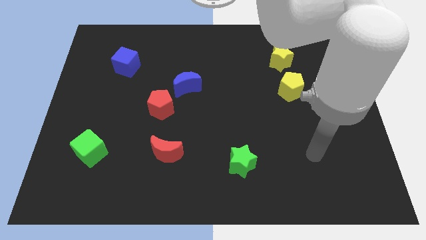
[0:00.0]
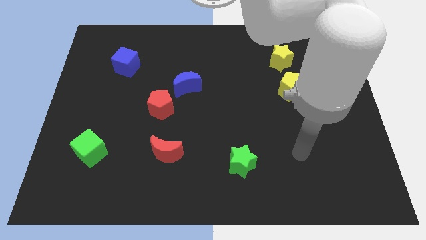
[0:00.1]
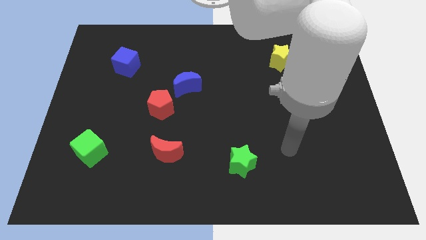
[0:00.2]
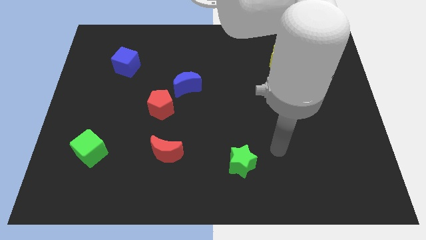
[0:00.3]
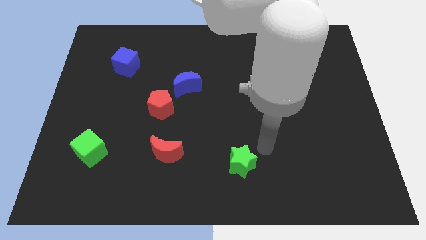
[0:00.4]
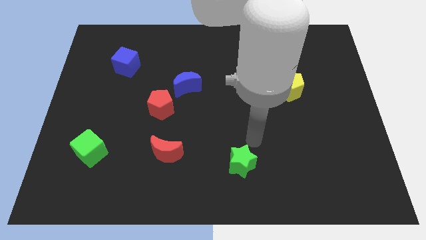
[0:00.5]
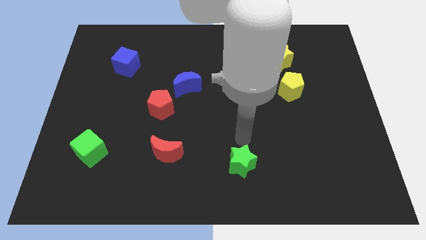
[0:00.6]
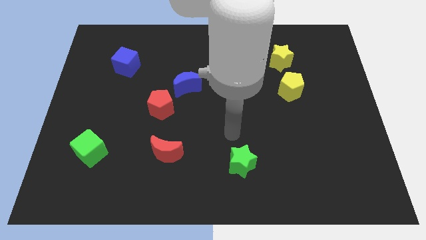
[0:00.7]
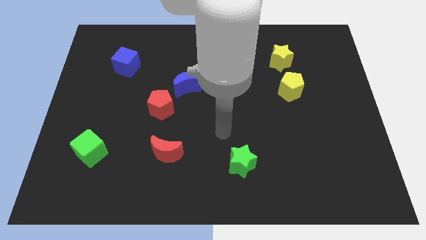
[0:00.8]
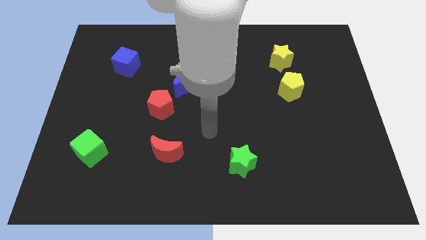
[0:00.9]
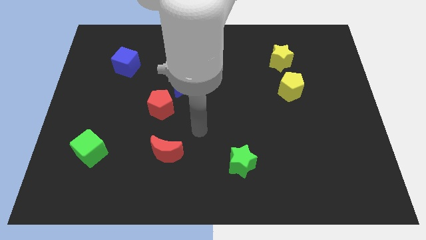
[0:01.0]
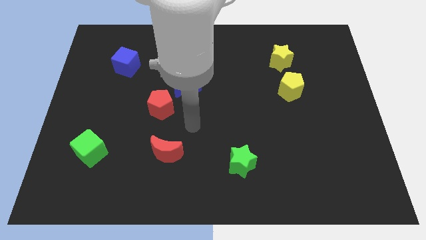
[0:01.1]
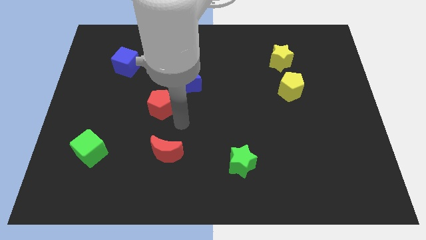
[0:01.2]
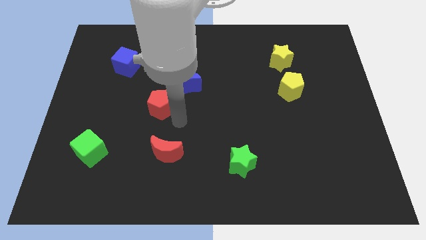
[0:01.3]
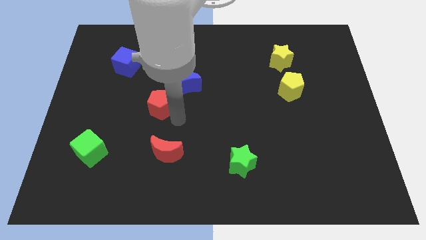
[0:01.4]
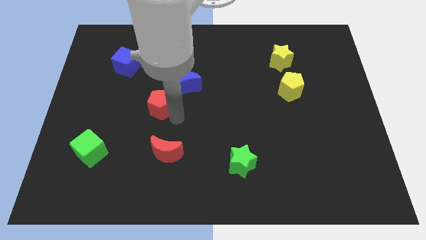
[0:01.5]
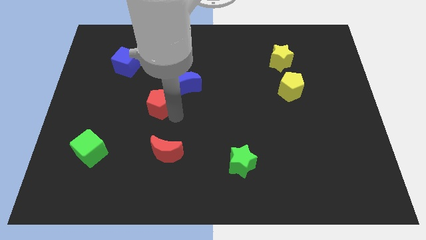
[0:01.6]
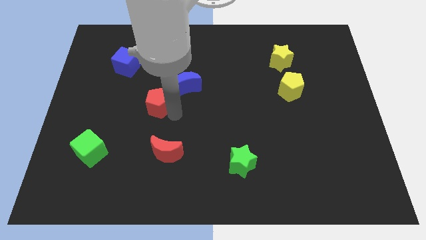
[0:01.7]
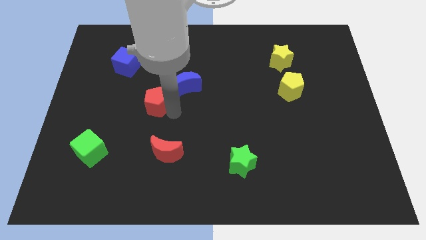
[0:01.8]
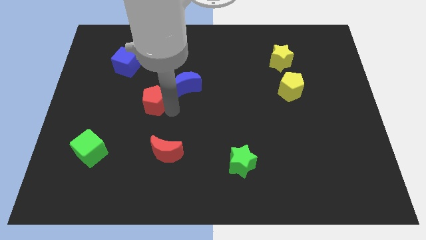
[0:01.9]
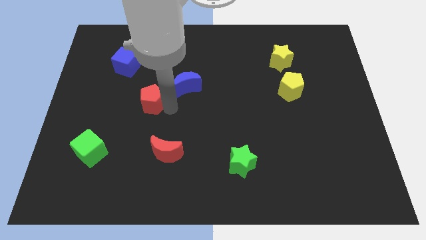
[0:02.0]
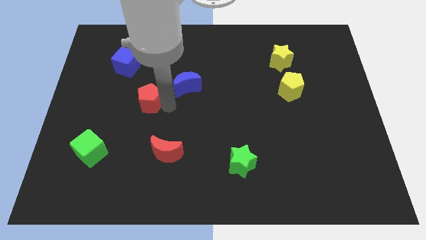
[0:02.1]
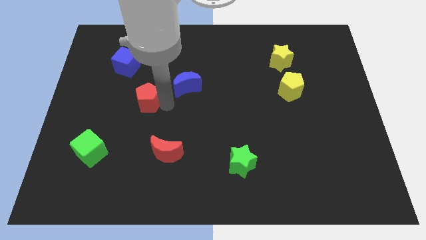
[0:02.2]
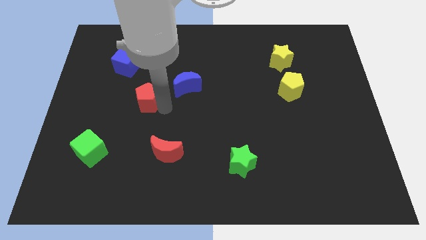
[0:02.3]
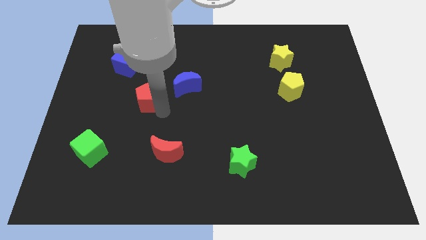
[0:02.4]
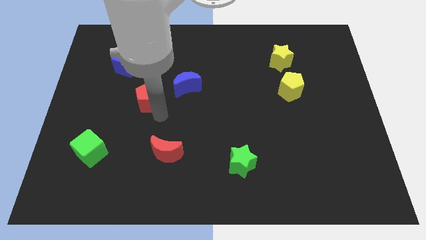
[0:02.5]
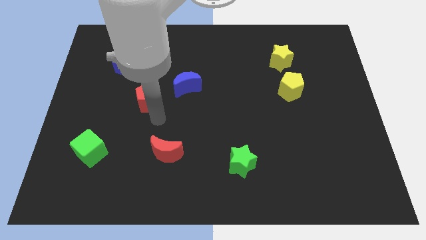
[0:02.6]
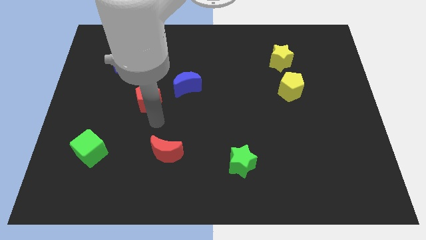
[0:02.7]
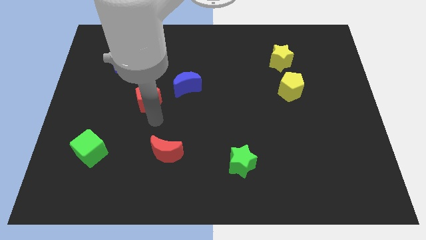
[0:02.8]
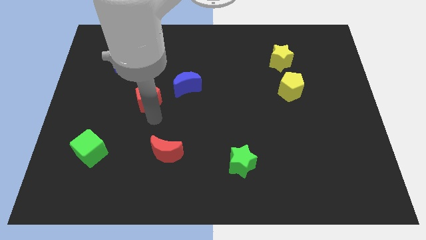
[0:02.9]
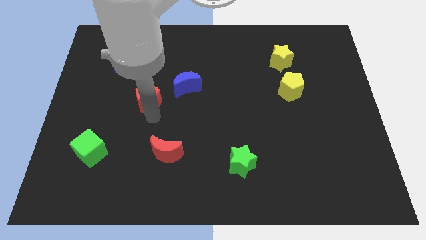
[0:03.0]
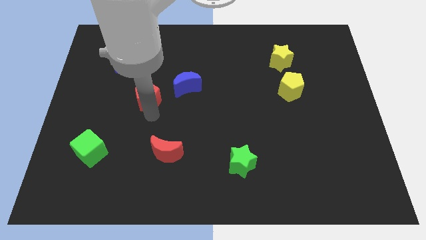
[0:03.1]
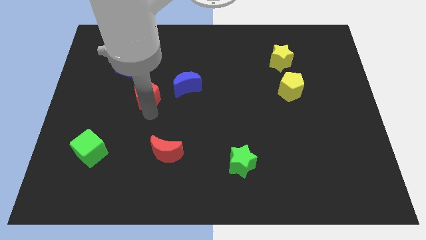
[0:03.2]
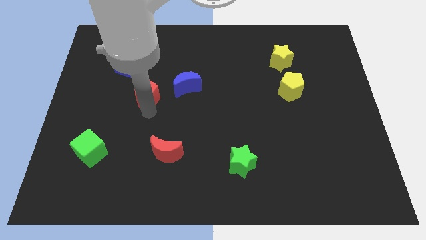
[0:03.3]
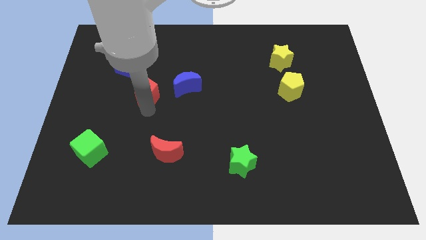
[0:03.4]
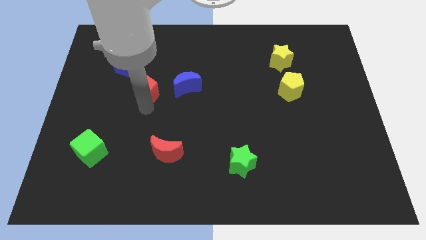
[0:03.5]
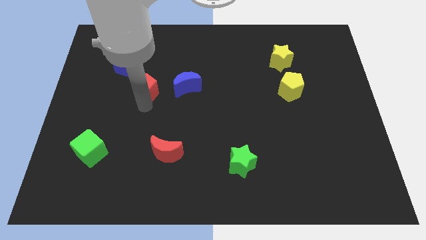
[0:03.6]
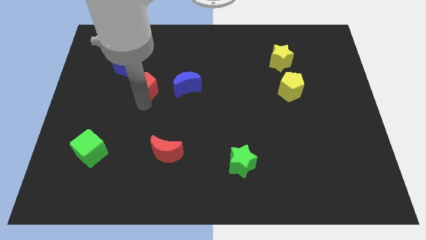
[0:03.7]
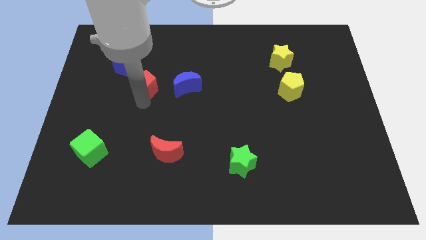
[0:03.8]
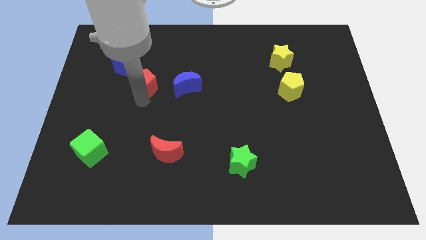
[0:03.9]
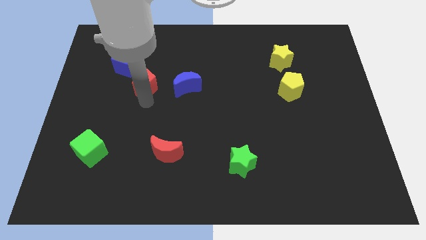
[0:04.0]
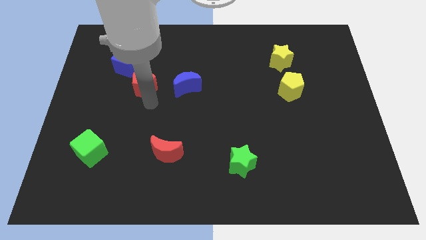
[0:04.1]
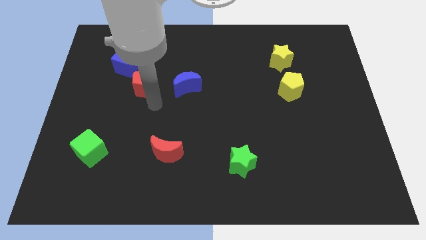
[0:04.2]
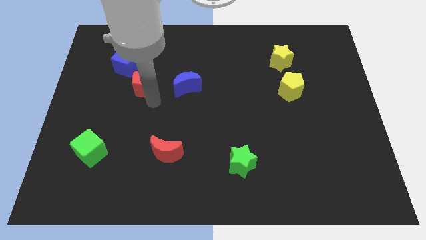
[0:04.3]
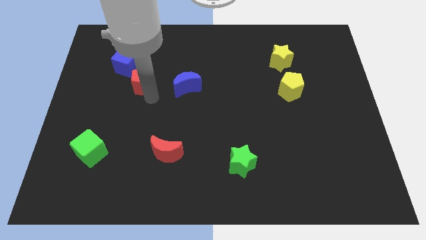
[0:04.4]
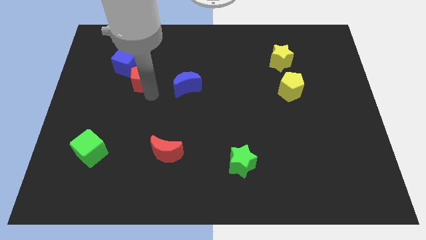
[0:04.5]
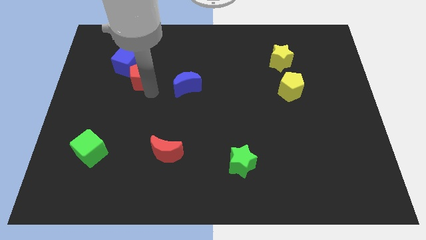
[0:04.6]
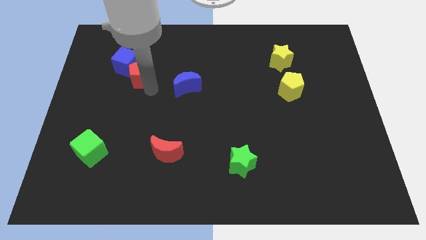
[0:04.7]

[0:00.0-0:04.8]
put the red pentagon towards the blue cube

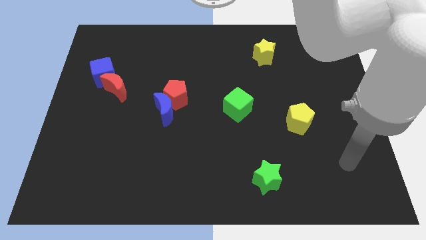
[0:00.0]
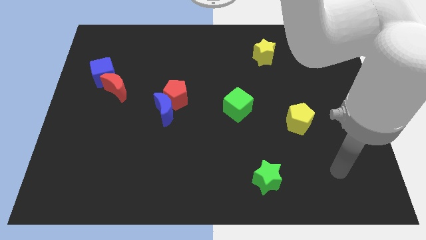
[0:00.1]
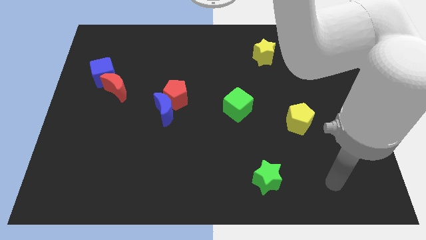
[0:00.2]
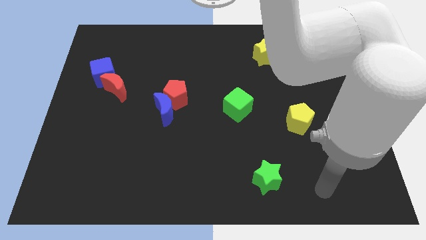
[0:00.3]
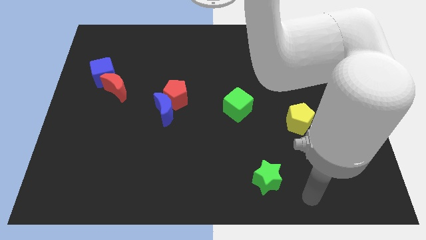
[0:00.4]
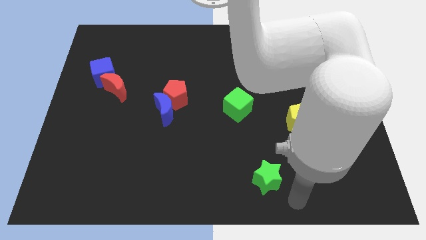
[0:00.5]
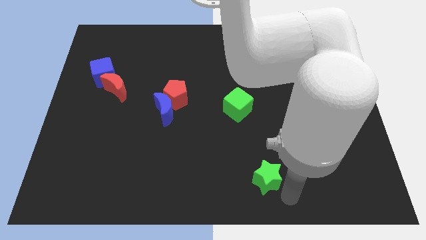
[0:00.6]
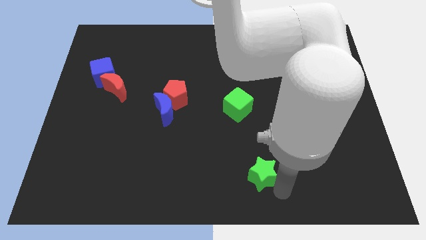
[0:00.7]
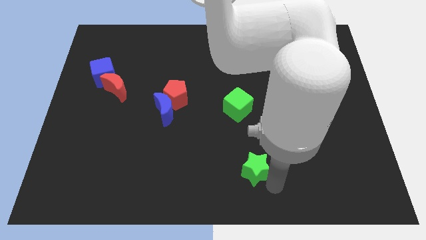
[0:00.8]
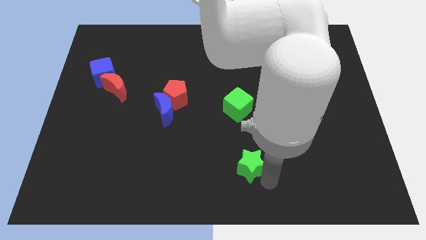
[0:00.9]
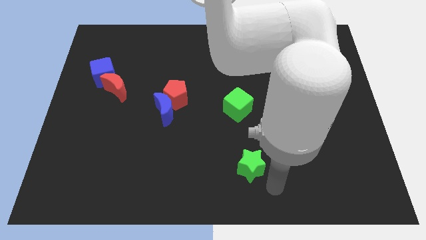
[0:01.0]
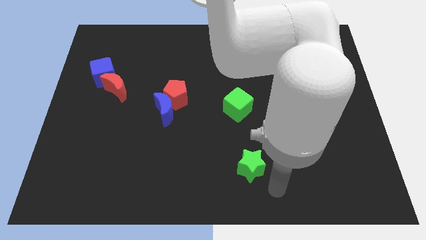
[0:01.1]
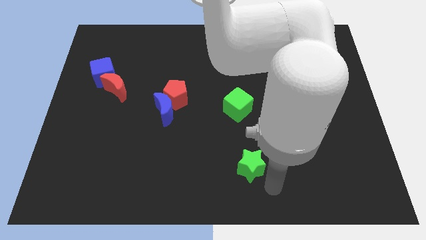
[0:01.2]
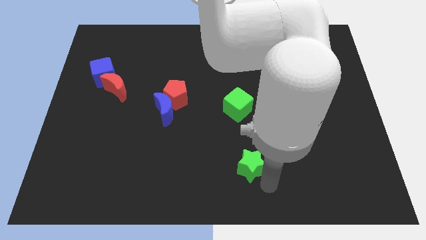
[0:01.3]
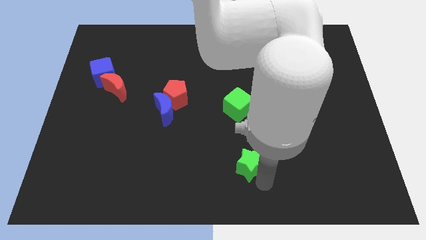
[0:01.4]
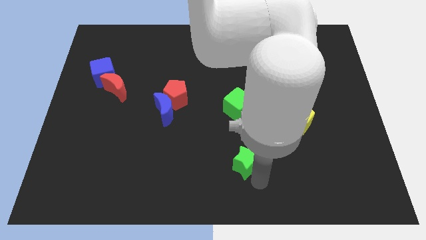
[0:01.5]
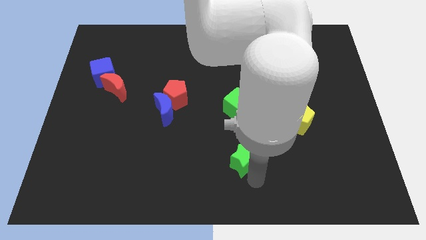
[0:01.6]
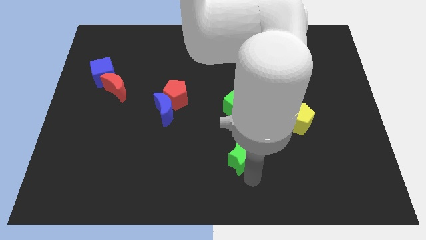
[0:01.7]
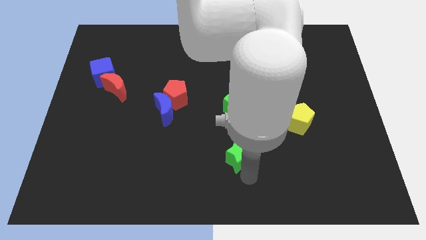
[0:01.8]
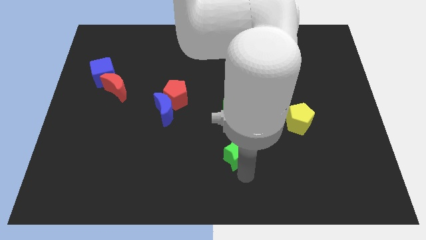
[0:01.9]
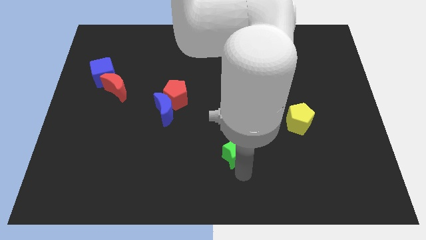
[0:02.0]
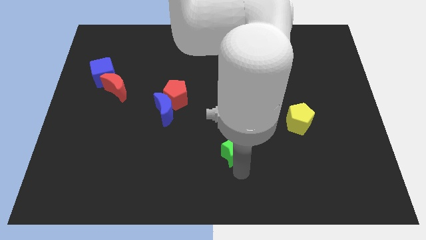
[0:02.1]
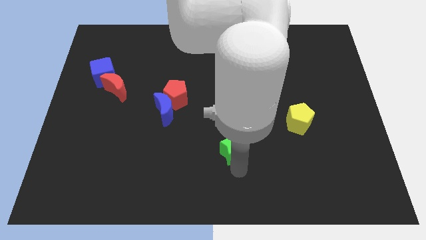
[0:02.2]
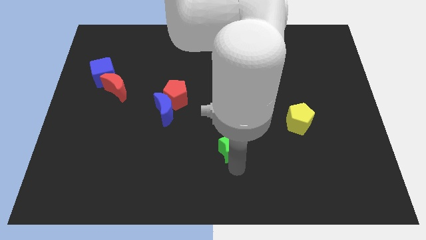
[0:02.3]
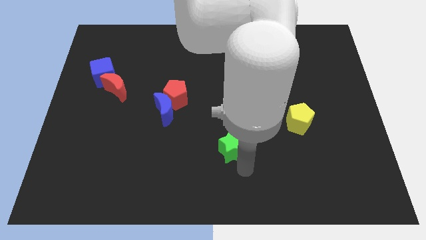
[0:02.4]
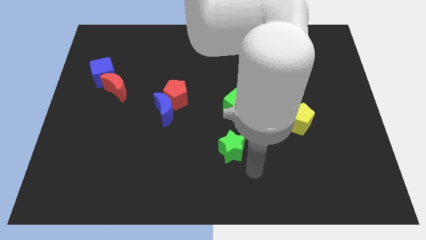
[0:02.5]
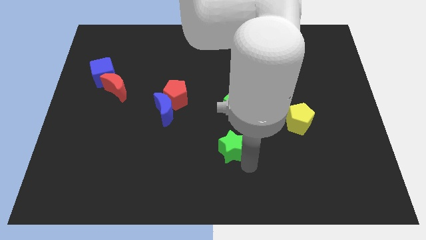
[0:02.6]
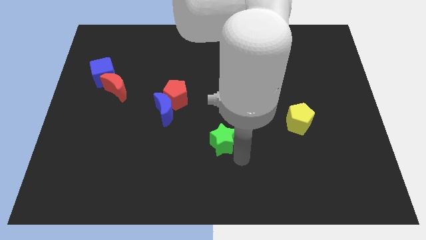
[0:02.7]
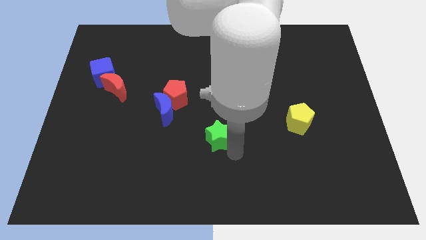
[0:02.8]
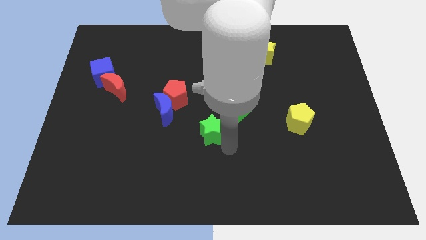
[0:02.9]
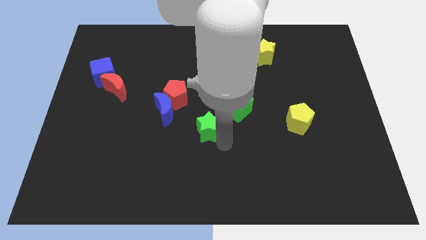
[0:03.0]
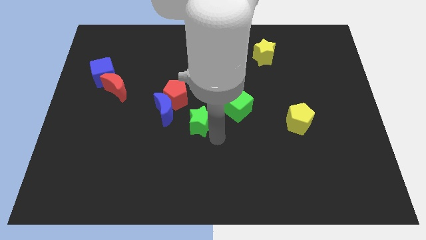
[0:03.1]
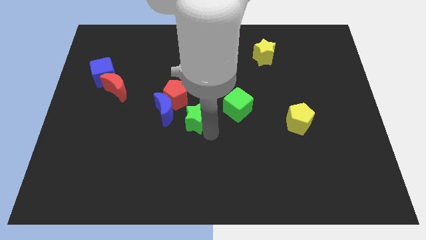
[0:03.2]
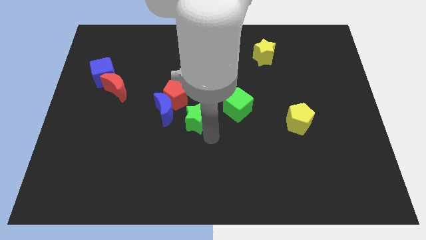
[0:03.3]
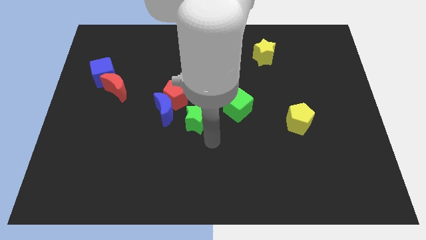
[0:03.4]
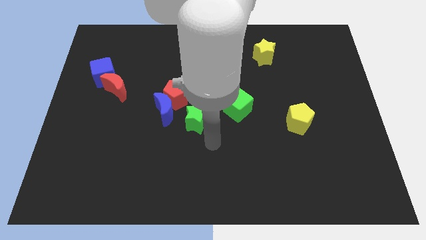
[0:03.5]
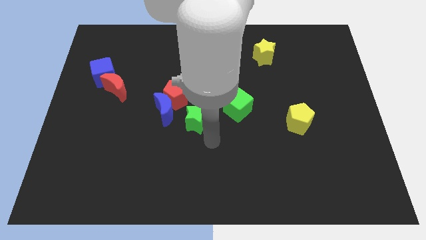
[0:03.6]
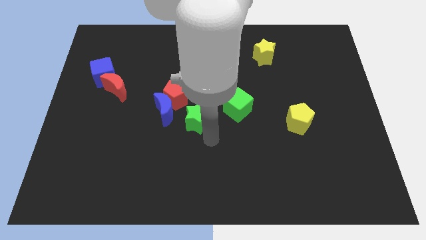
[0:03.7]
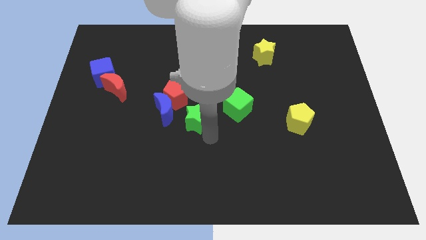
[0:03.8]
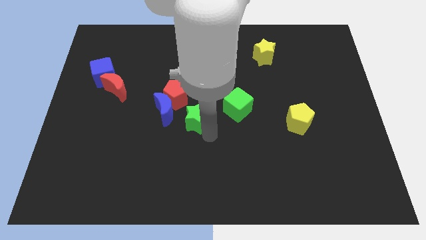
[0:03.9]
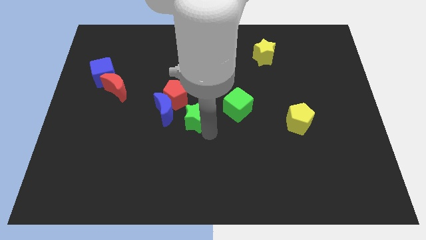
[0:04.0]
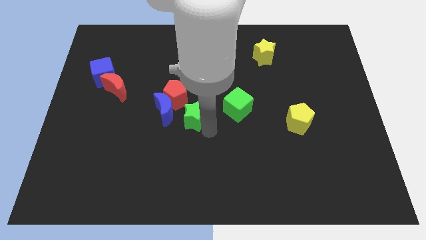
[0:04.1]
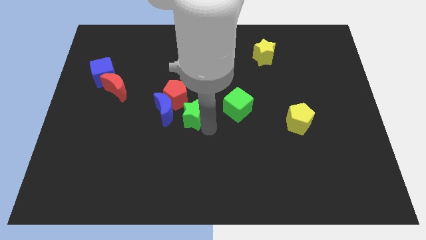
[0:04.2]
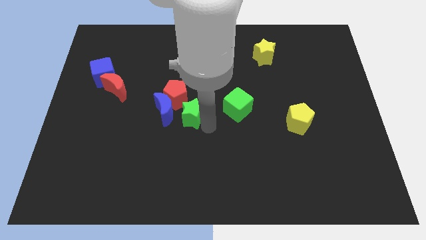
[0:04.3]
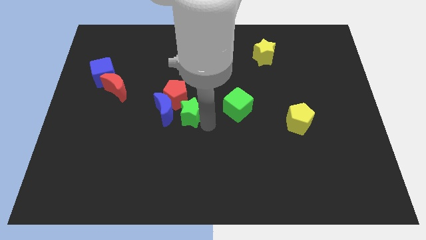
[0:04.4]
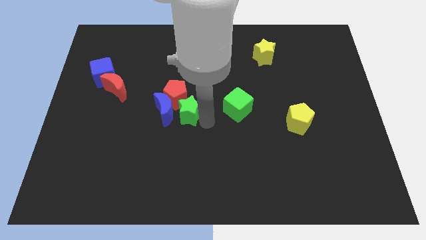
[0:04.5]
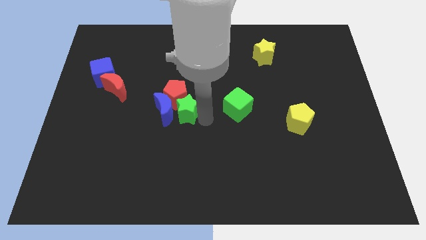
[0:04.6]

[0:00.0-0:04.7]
slide the green star to the red pentagon
